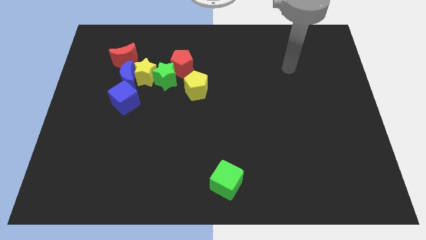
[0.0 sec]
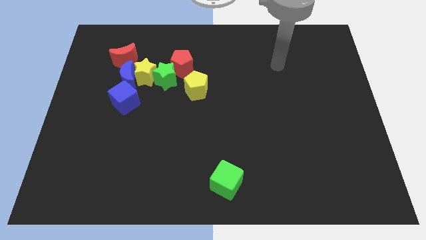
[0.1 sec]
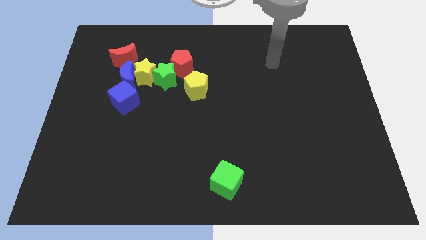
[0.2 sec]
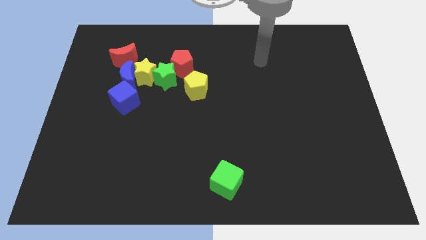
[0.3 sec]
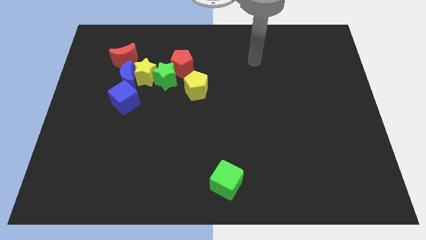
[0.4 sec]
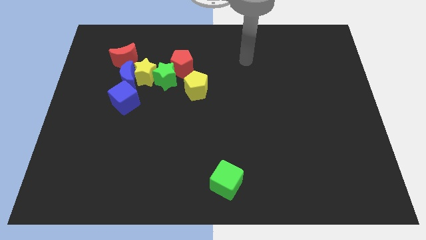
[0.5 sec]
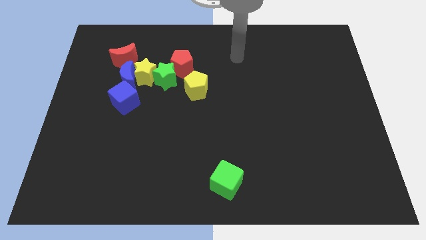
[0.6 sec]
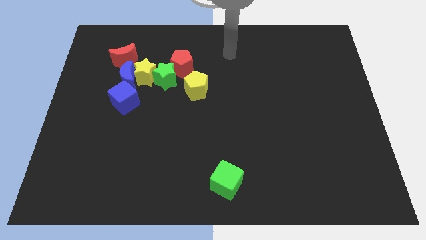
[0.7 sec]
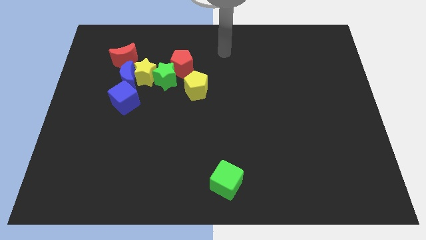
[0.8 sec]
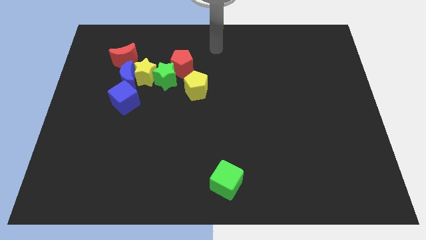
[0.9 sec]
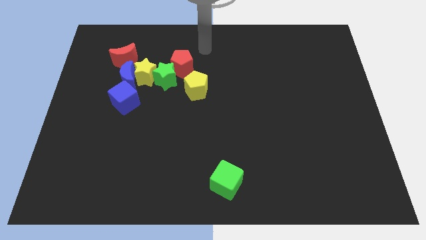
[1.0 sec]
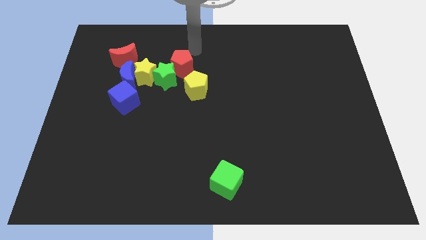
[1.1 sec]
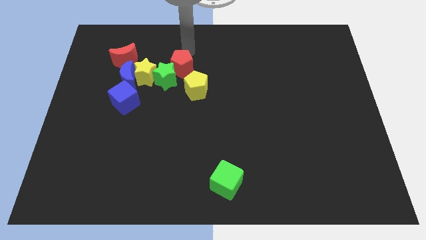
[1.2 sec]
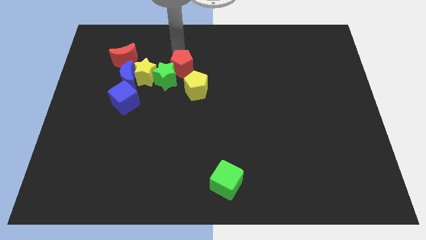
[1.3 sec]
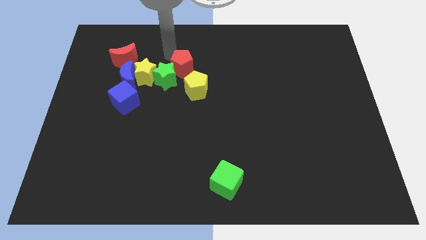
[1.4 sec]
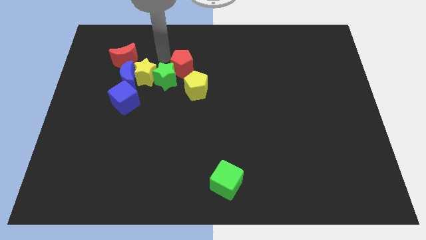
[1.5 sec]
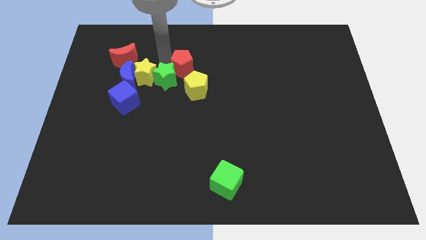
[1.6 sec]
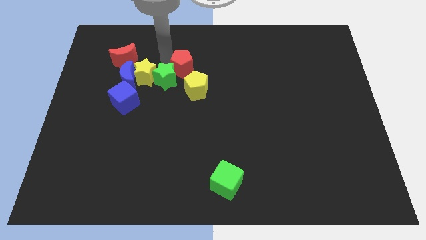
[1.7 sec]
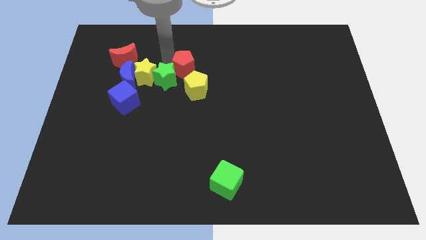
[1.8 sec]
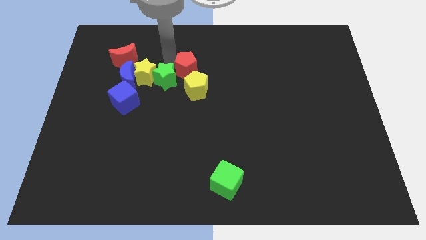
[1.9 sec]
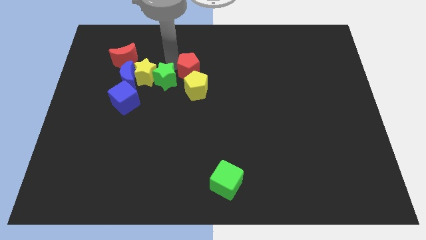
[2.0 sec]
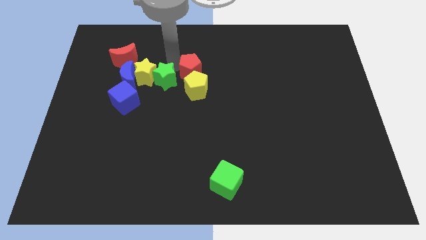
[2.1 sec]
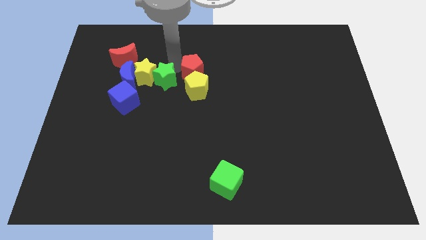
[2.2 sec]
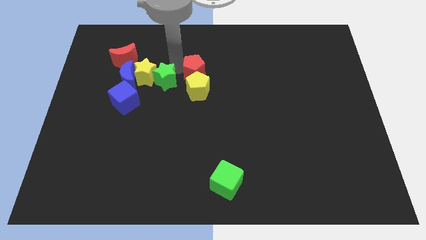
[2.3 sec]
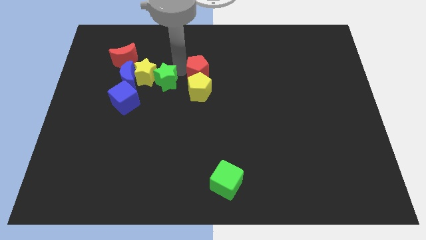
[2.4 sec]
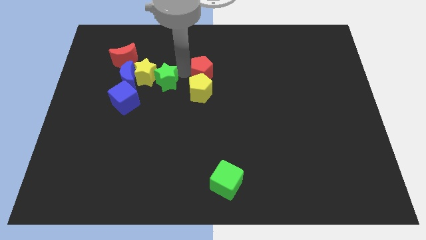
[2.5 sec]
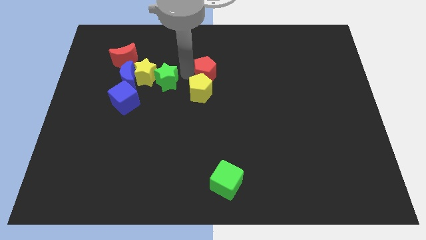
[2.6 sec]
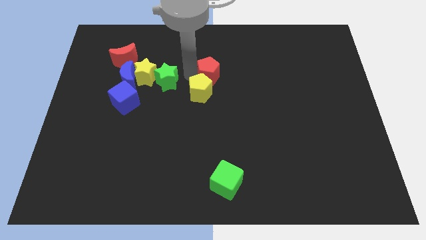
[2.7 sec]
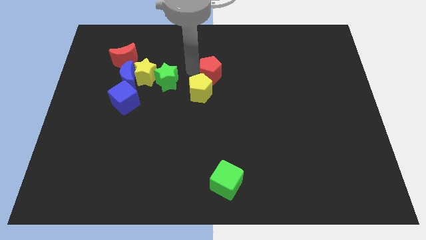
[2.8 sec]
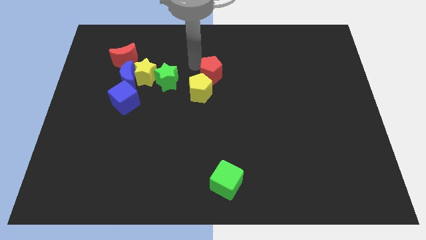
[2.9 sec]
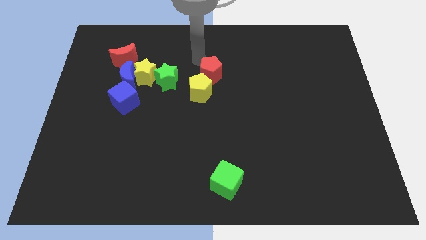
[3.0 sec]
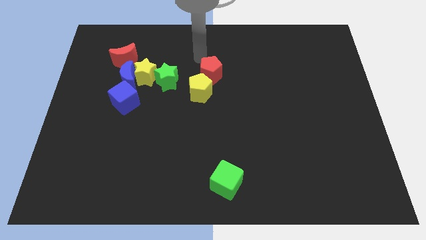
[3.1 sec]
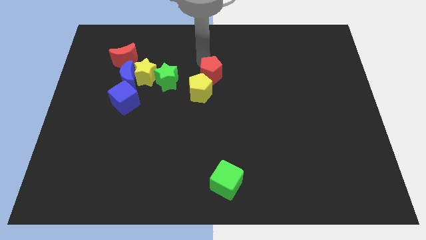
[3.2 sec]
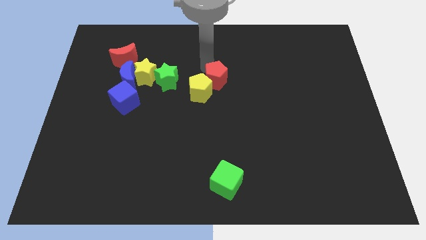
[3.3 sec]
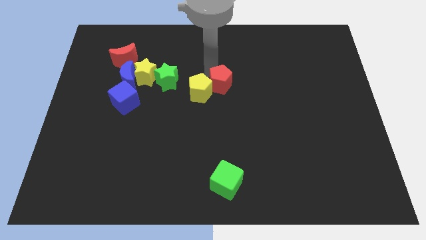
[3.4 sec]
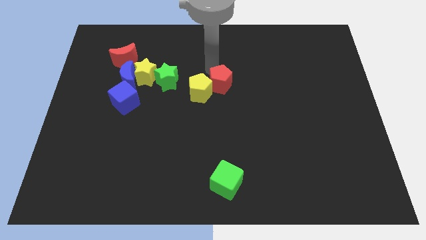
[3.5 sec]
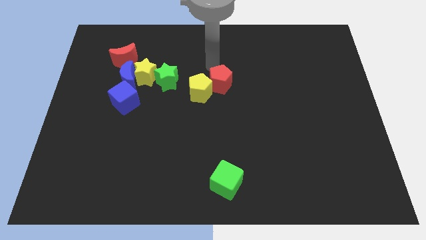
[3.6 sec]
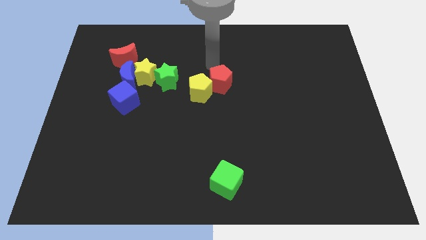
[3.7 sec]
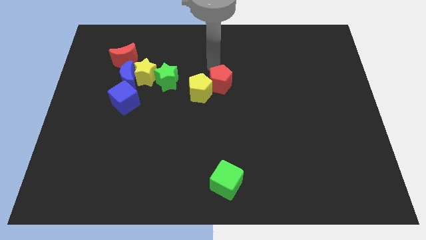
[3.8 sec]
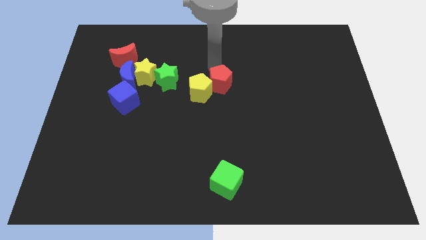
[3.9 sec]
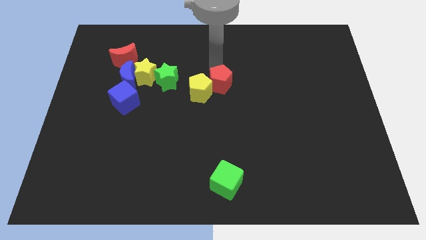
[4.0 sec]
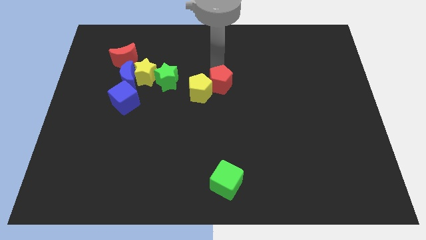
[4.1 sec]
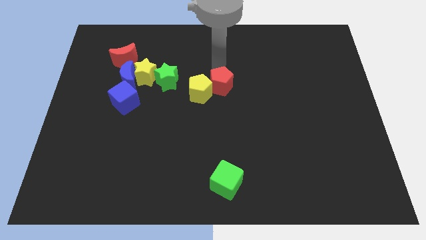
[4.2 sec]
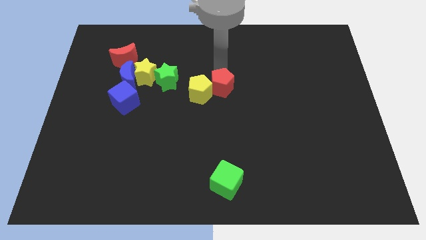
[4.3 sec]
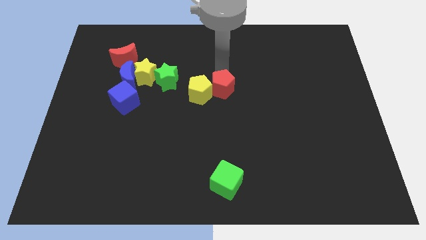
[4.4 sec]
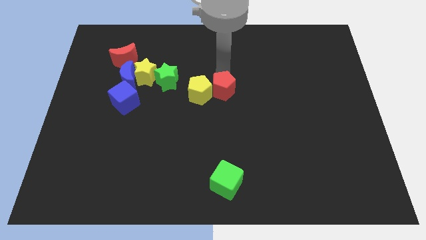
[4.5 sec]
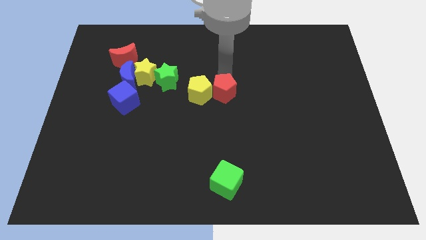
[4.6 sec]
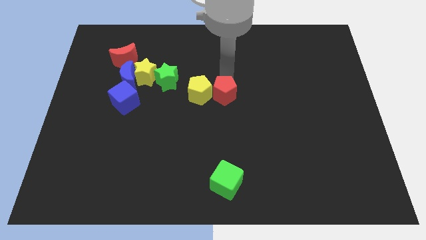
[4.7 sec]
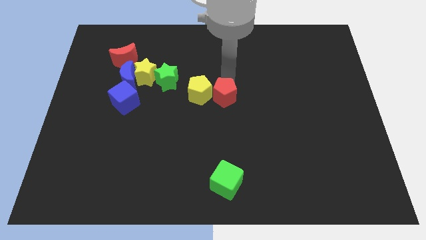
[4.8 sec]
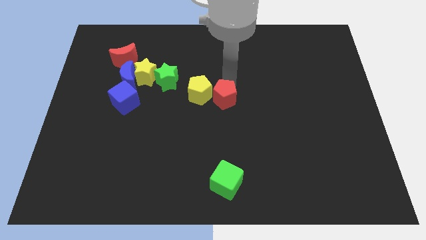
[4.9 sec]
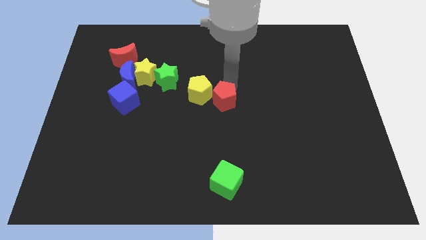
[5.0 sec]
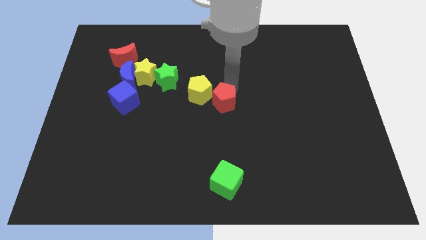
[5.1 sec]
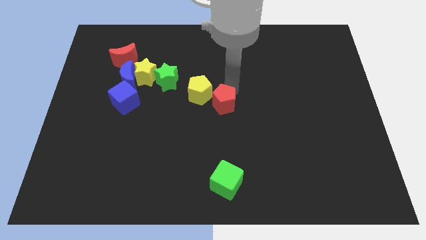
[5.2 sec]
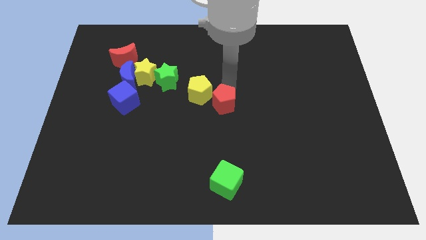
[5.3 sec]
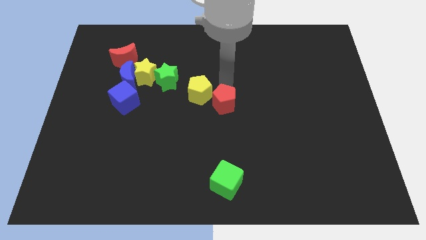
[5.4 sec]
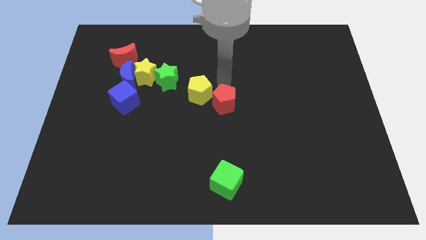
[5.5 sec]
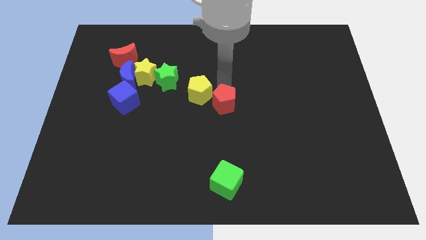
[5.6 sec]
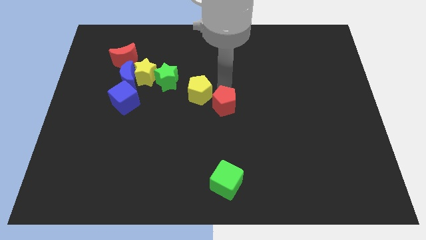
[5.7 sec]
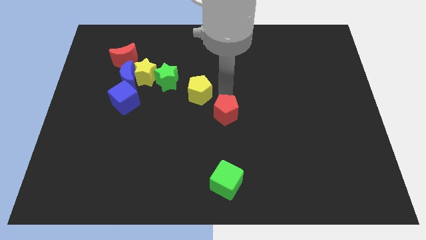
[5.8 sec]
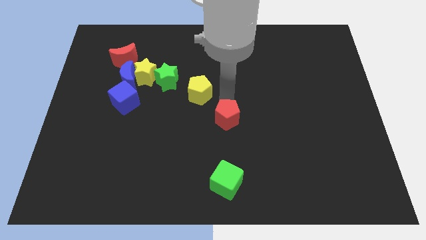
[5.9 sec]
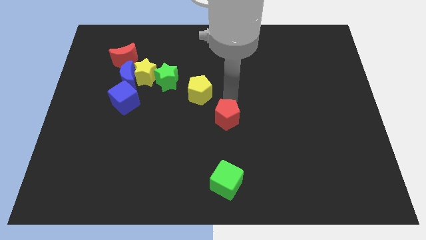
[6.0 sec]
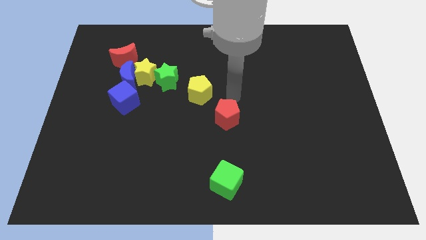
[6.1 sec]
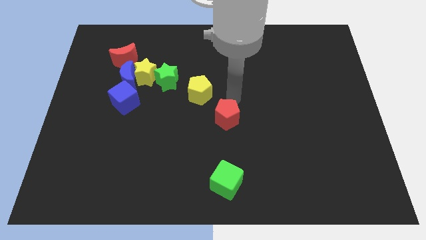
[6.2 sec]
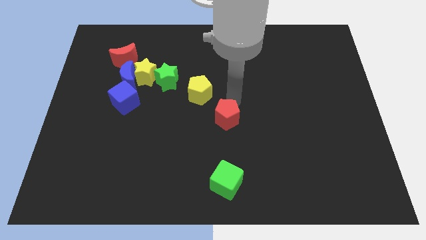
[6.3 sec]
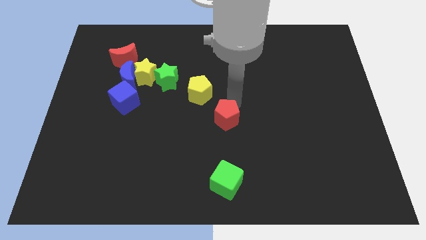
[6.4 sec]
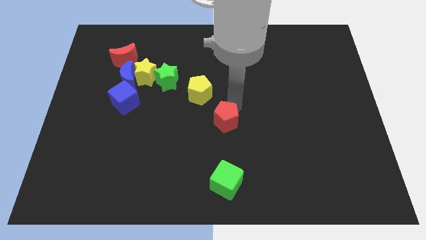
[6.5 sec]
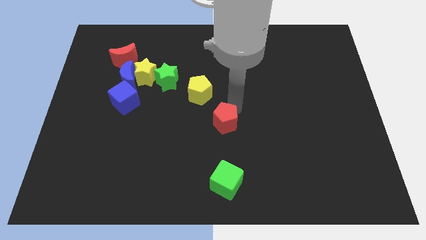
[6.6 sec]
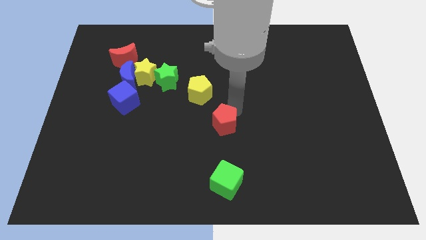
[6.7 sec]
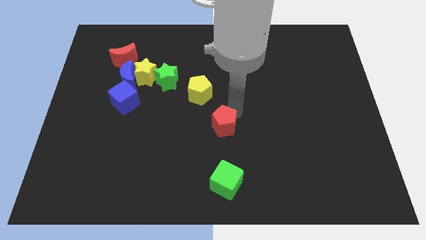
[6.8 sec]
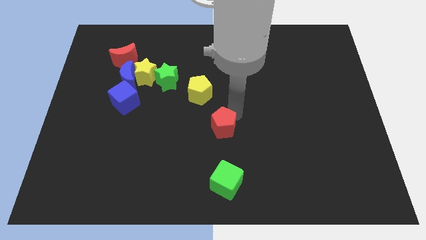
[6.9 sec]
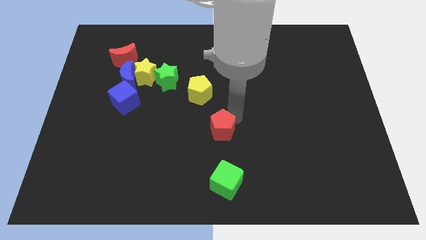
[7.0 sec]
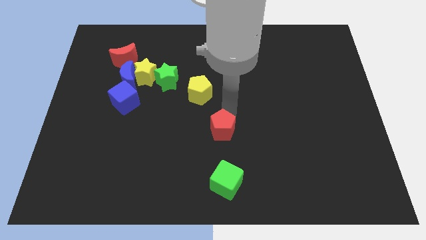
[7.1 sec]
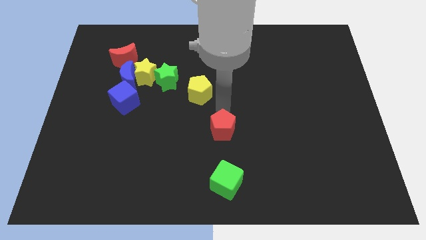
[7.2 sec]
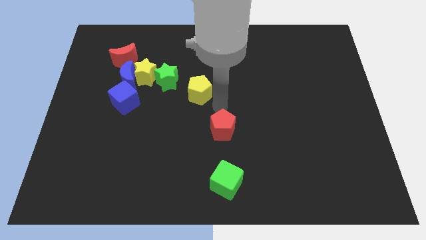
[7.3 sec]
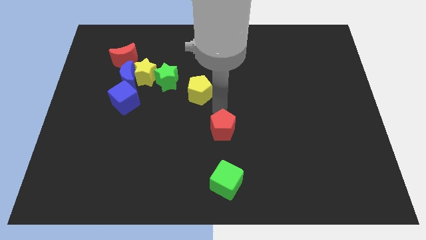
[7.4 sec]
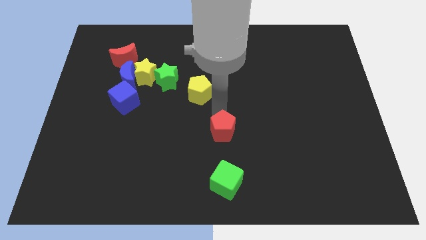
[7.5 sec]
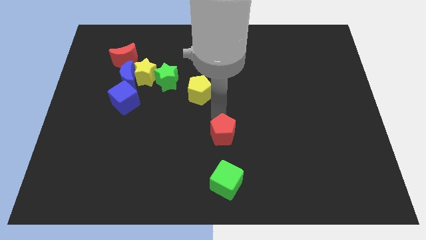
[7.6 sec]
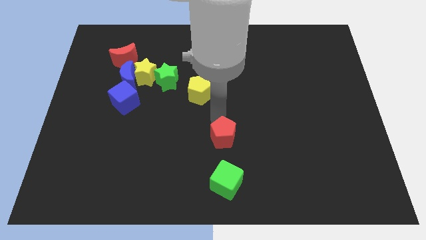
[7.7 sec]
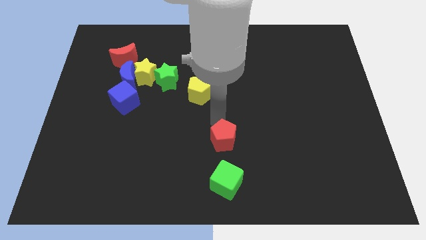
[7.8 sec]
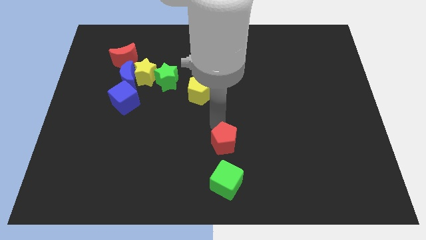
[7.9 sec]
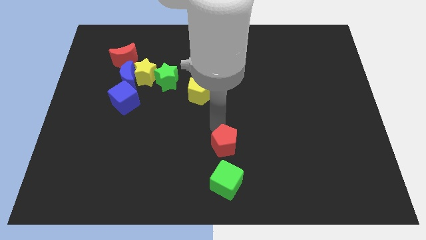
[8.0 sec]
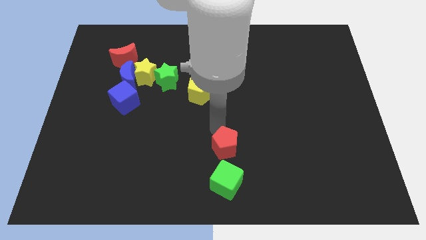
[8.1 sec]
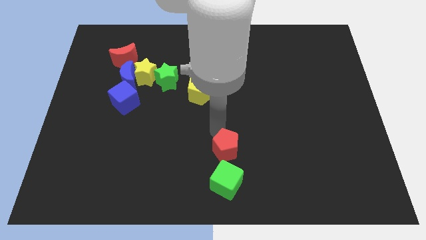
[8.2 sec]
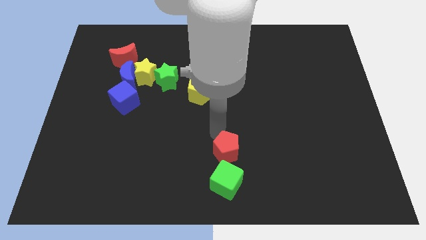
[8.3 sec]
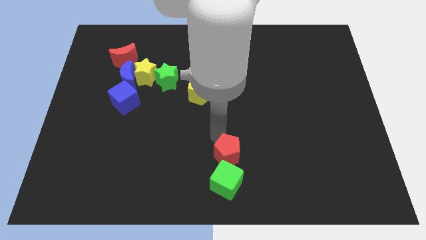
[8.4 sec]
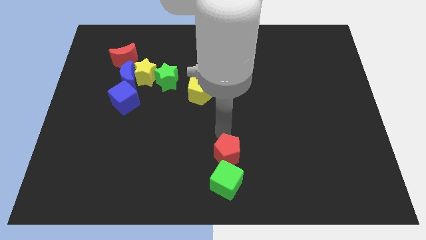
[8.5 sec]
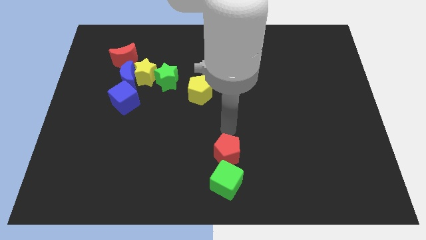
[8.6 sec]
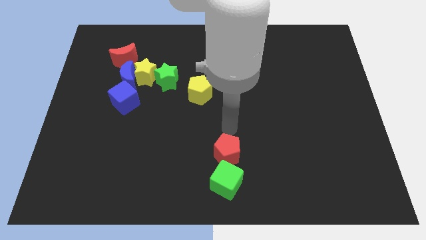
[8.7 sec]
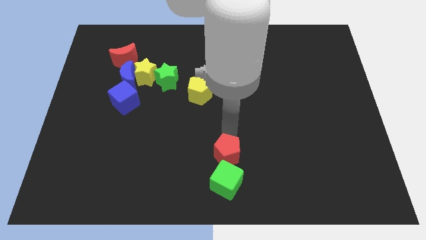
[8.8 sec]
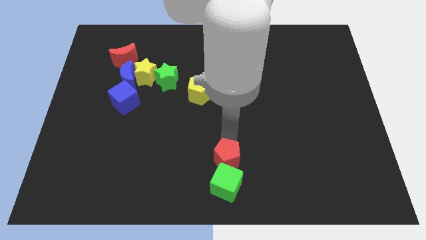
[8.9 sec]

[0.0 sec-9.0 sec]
push the red pentagon close to the green cube
